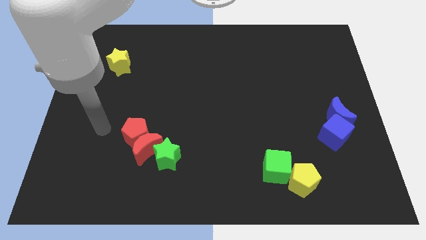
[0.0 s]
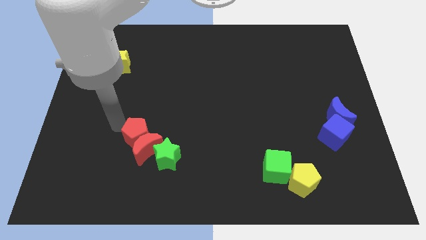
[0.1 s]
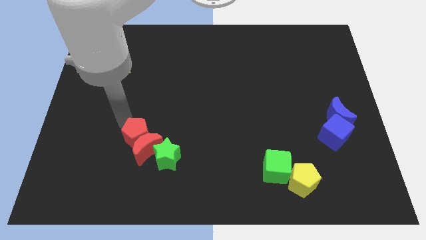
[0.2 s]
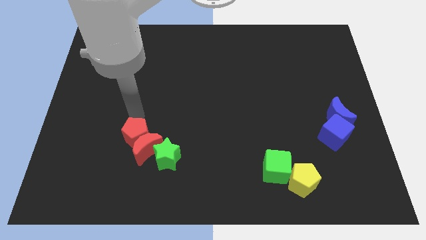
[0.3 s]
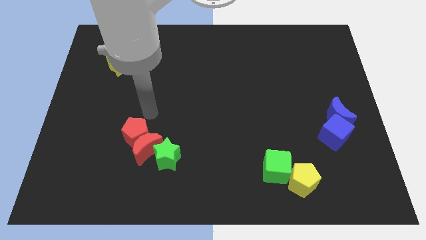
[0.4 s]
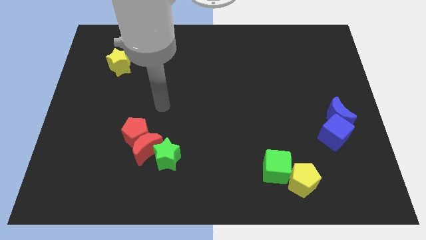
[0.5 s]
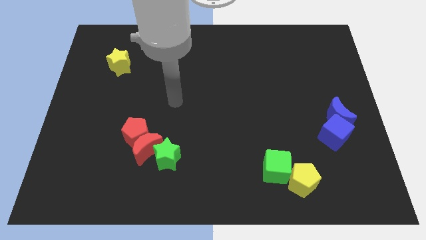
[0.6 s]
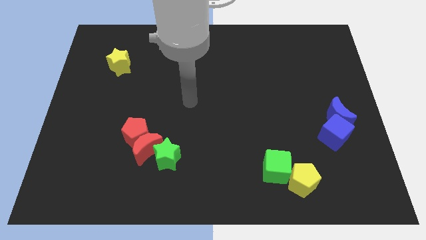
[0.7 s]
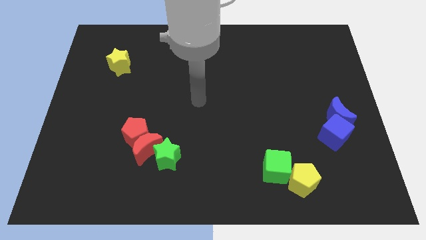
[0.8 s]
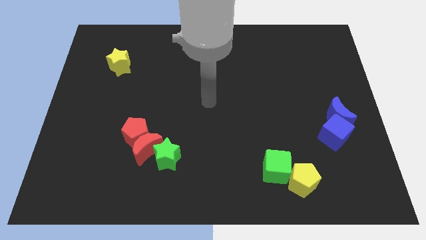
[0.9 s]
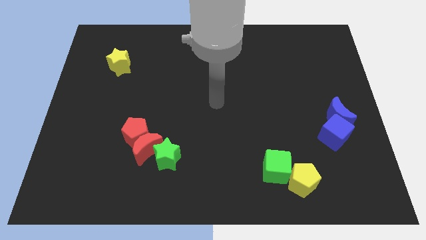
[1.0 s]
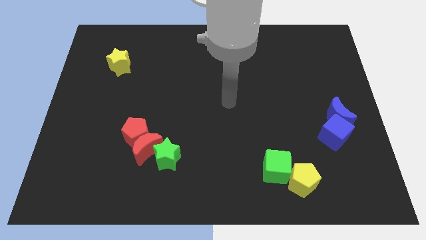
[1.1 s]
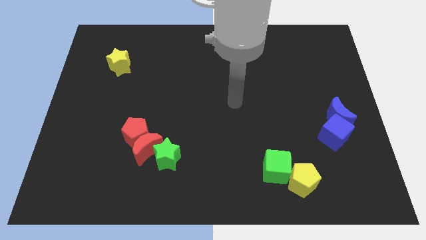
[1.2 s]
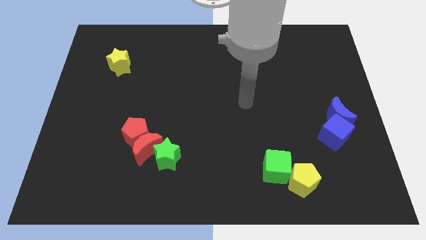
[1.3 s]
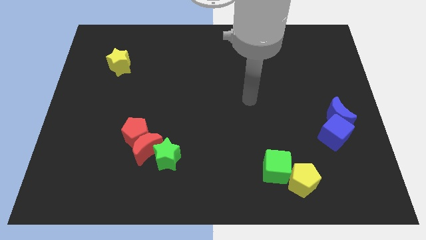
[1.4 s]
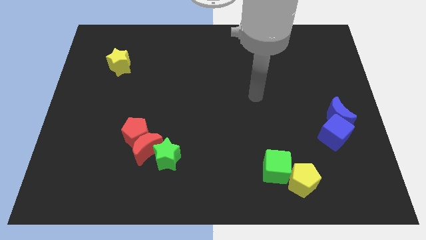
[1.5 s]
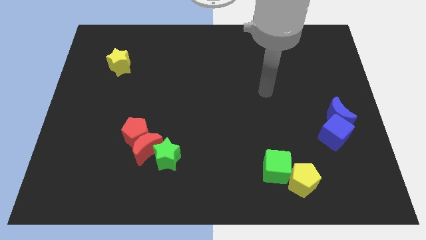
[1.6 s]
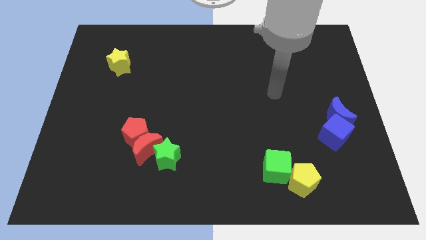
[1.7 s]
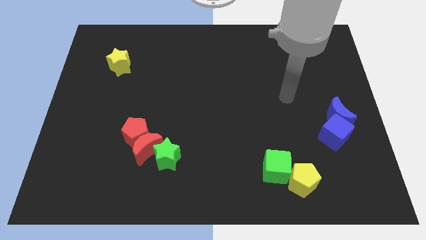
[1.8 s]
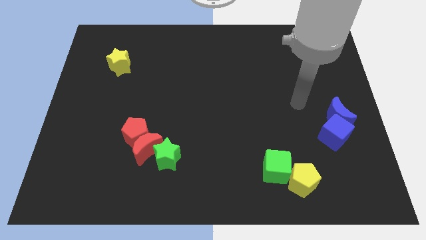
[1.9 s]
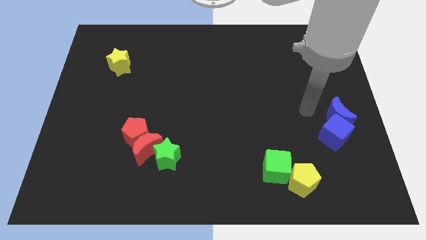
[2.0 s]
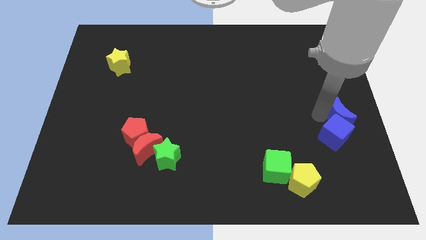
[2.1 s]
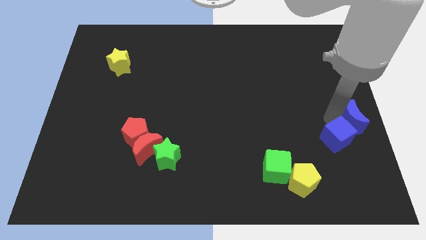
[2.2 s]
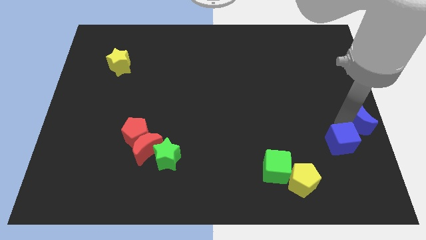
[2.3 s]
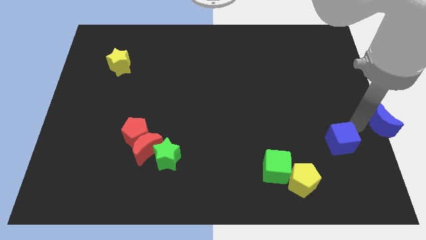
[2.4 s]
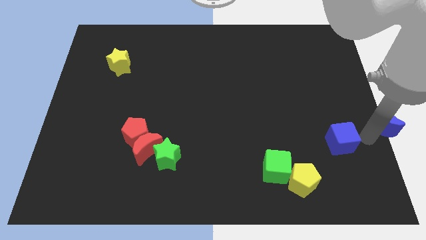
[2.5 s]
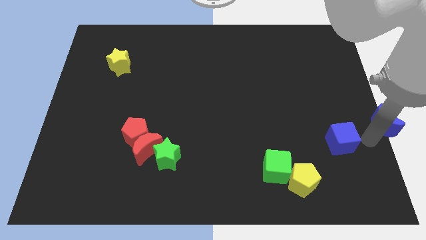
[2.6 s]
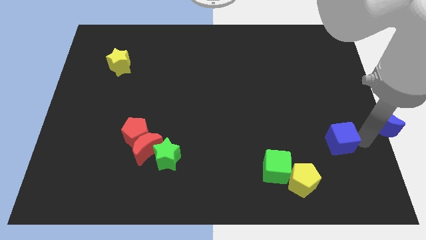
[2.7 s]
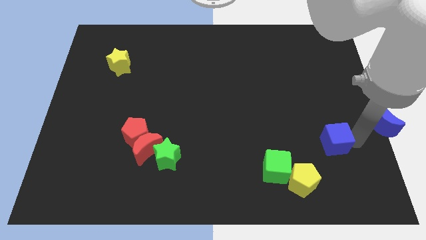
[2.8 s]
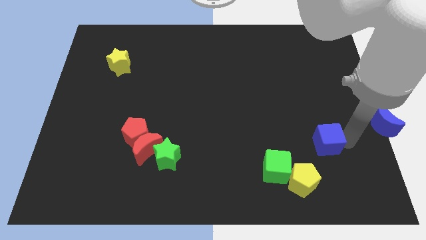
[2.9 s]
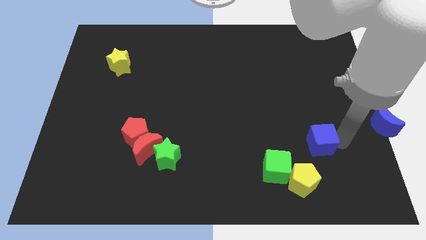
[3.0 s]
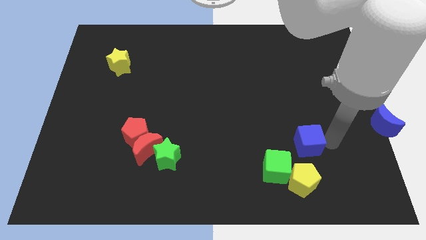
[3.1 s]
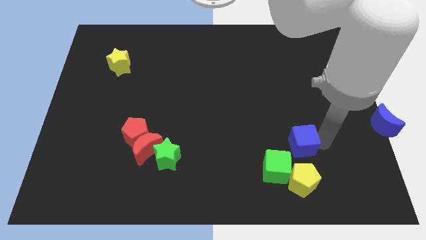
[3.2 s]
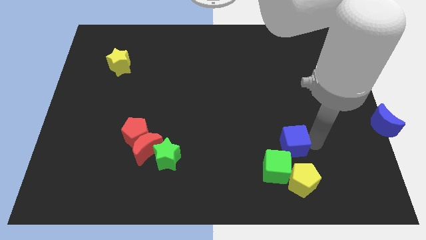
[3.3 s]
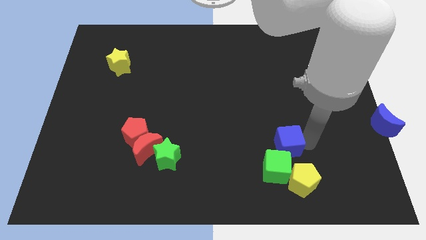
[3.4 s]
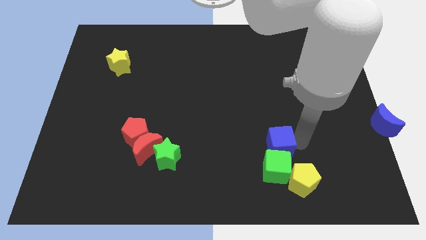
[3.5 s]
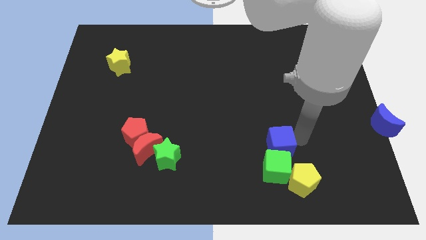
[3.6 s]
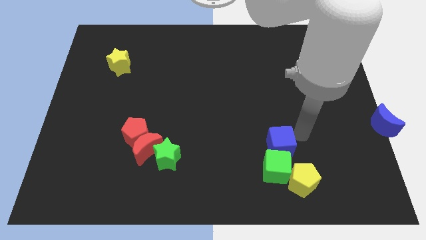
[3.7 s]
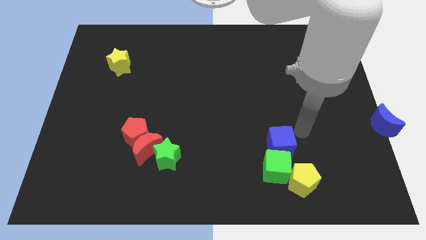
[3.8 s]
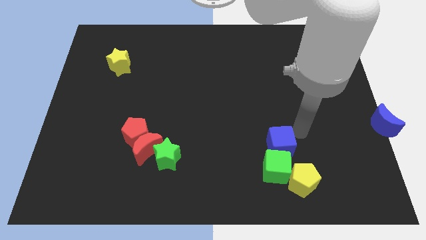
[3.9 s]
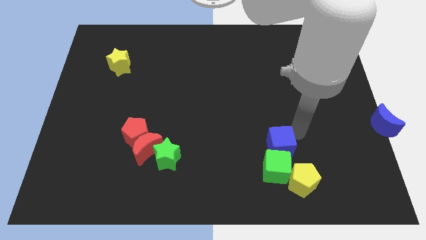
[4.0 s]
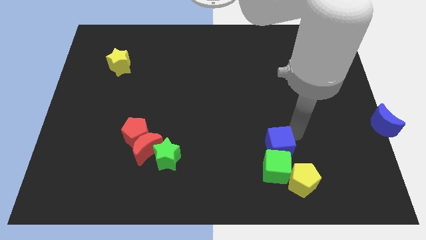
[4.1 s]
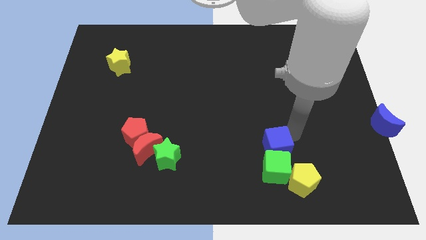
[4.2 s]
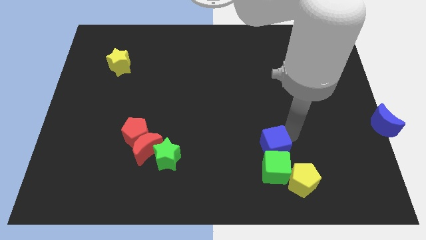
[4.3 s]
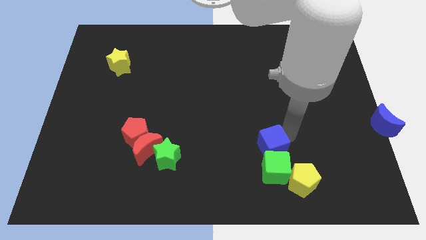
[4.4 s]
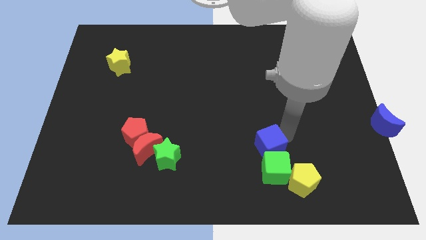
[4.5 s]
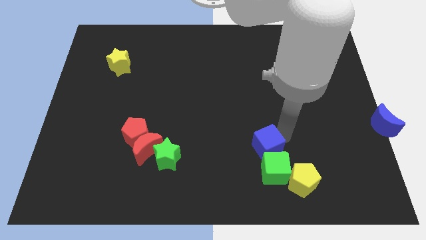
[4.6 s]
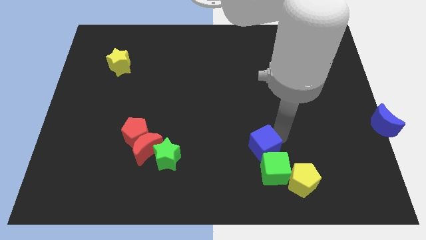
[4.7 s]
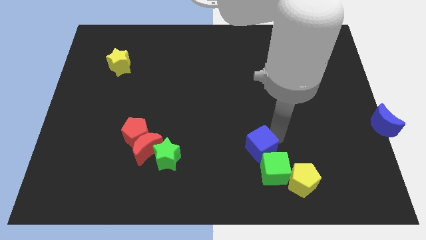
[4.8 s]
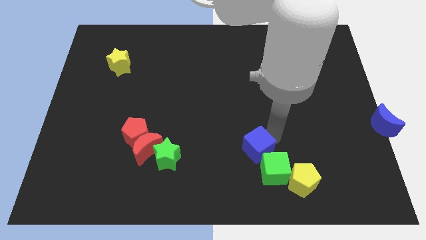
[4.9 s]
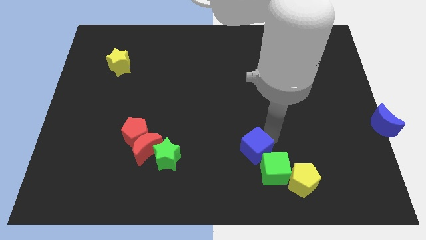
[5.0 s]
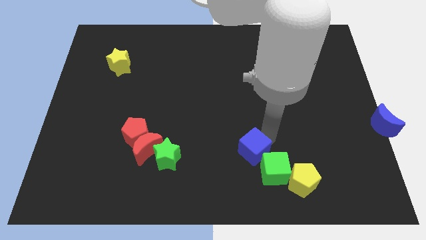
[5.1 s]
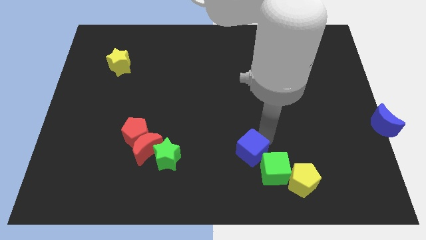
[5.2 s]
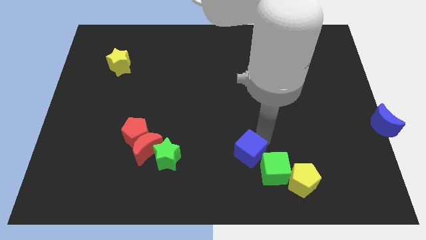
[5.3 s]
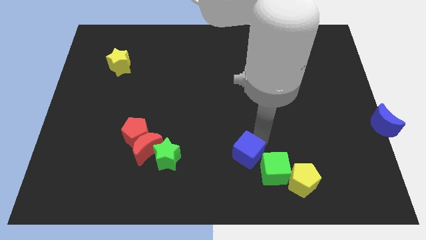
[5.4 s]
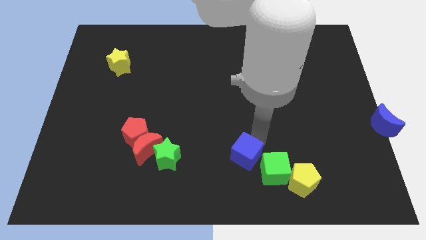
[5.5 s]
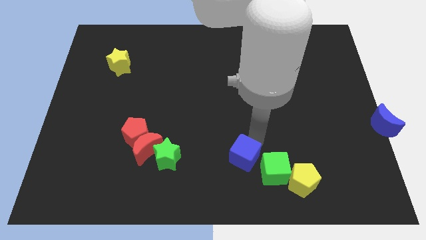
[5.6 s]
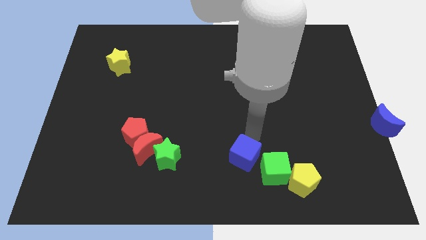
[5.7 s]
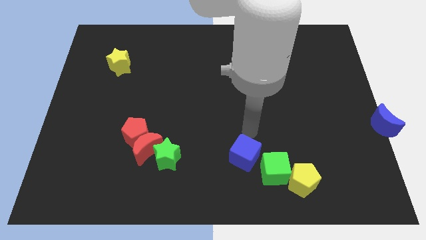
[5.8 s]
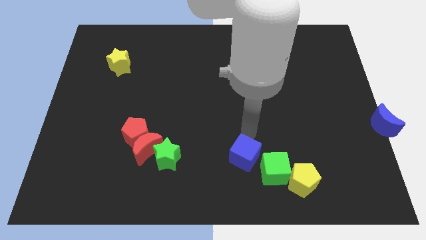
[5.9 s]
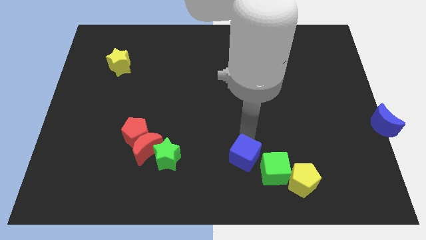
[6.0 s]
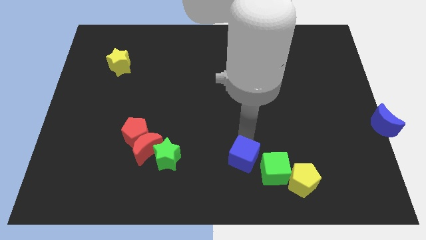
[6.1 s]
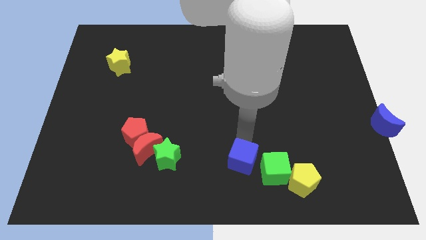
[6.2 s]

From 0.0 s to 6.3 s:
slide the blue cube to the bottom

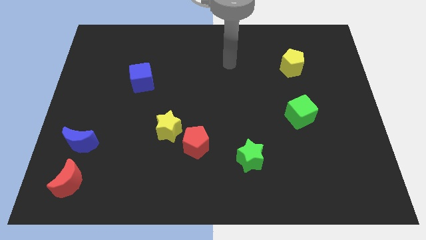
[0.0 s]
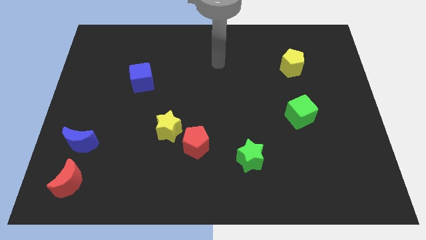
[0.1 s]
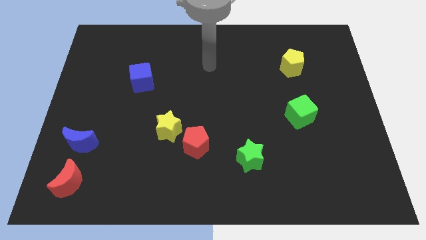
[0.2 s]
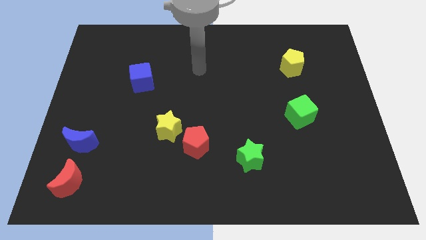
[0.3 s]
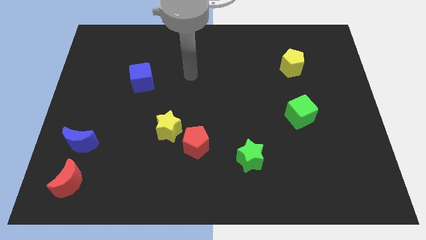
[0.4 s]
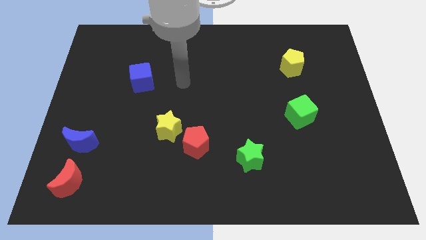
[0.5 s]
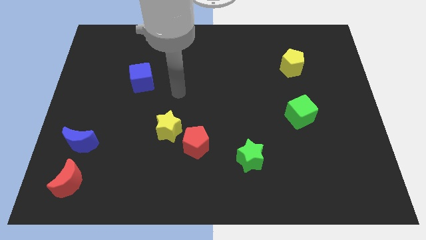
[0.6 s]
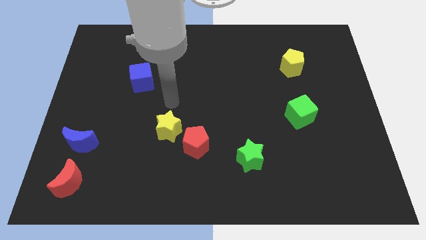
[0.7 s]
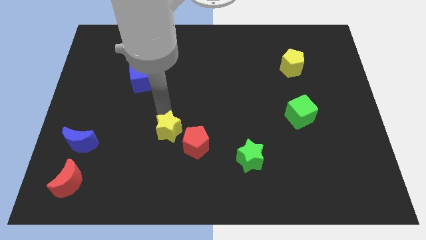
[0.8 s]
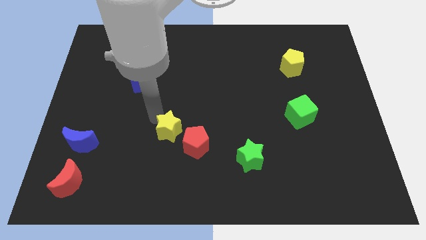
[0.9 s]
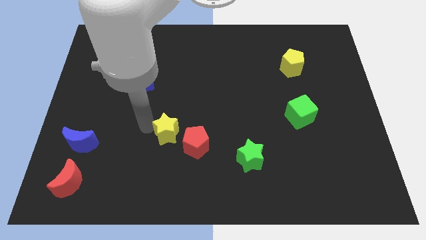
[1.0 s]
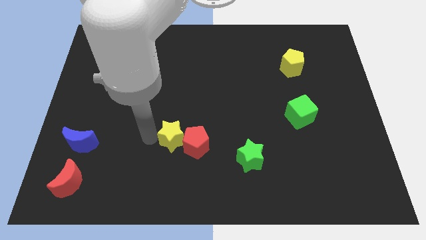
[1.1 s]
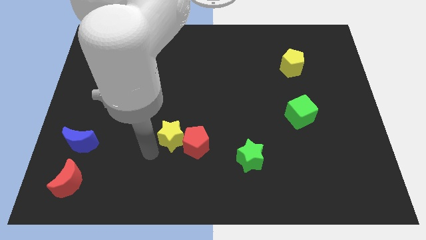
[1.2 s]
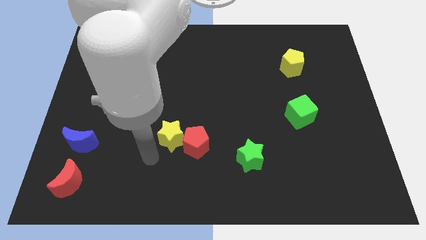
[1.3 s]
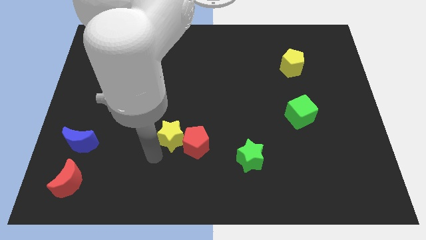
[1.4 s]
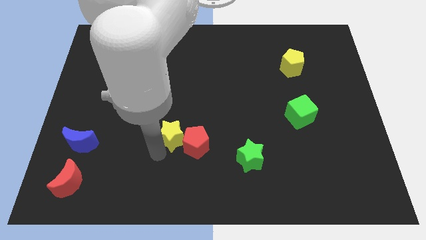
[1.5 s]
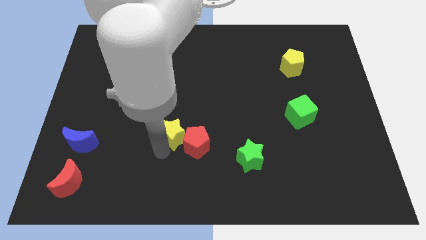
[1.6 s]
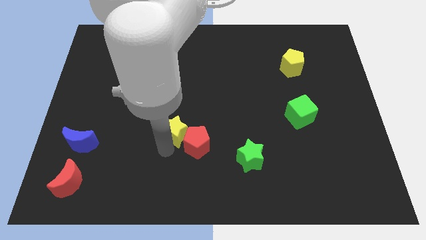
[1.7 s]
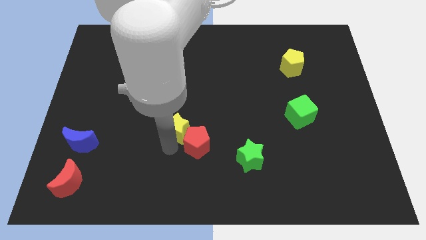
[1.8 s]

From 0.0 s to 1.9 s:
put the yellow star to the center of the board
